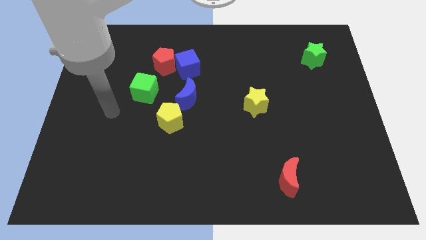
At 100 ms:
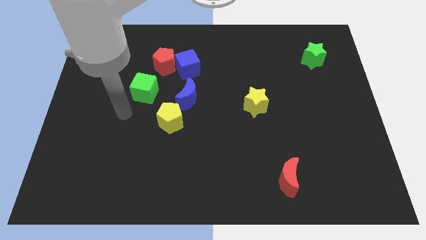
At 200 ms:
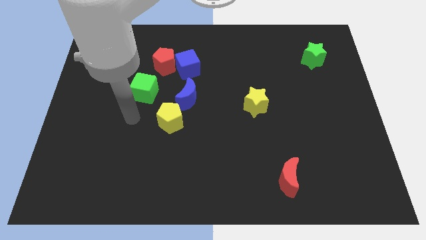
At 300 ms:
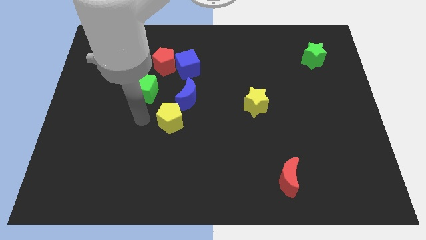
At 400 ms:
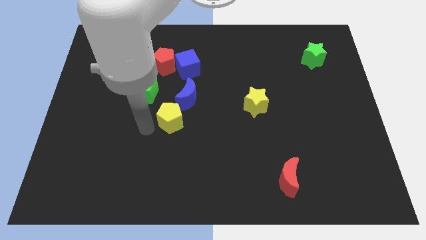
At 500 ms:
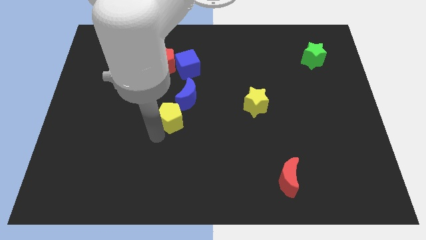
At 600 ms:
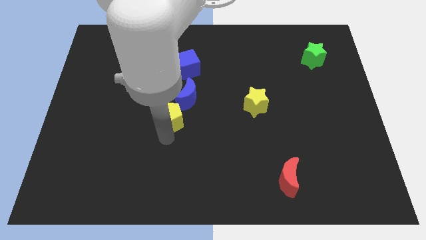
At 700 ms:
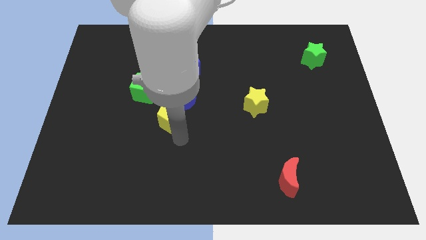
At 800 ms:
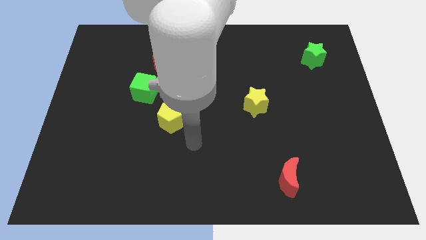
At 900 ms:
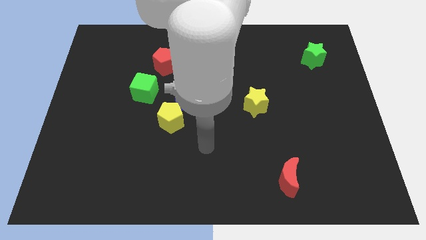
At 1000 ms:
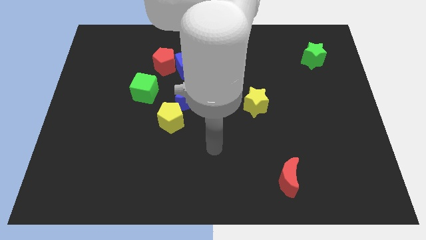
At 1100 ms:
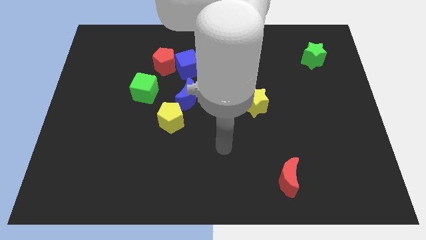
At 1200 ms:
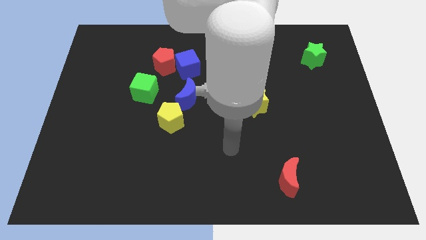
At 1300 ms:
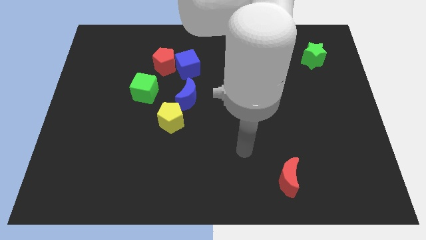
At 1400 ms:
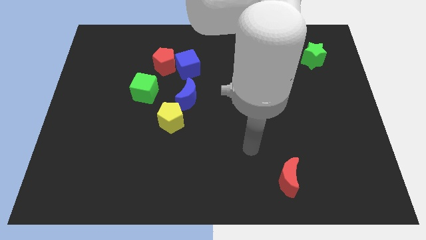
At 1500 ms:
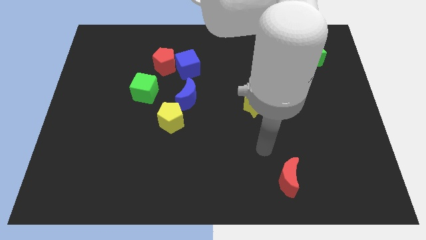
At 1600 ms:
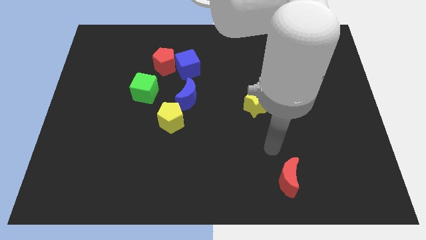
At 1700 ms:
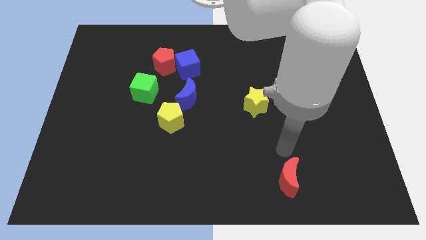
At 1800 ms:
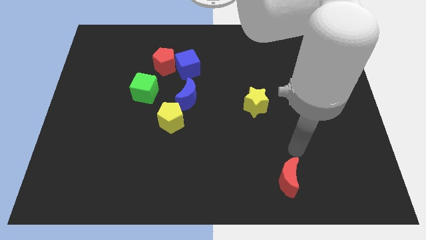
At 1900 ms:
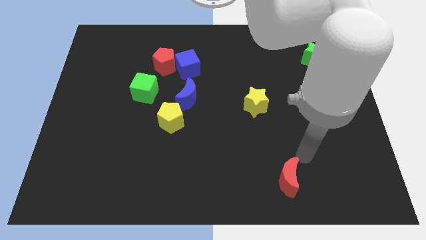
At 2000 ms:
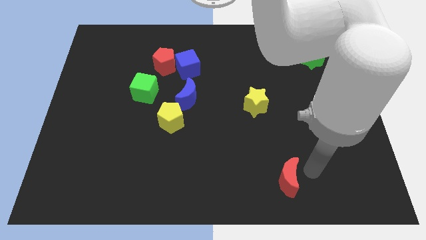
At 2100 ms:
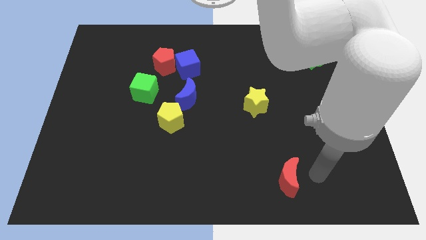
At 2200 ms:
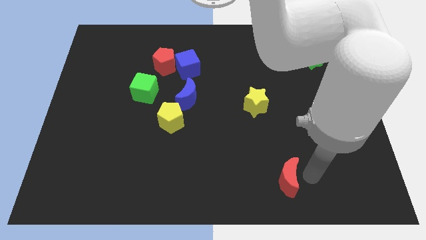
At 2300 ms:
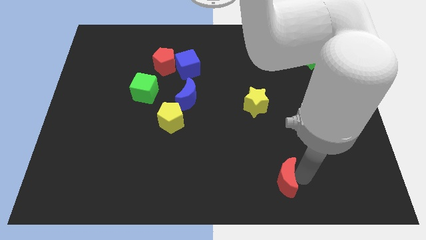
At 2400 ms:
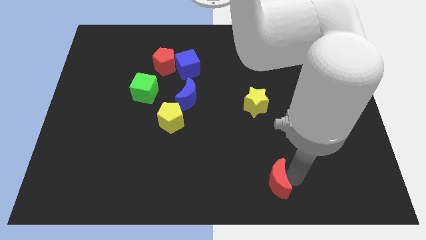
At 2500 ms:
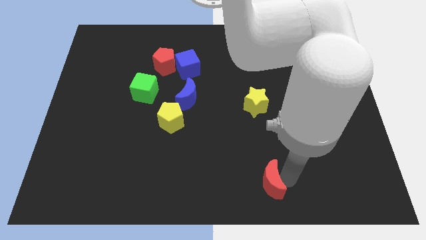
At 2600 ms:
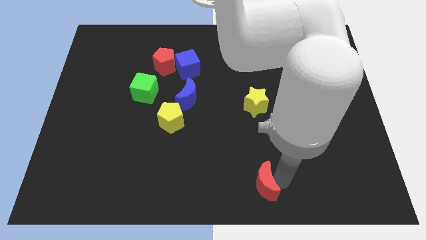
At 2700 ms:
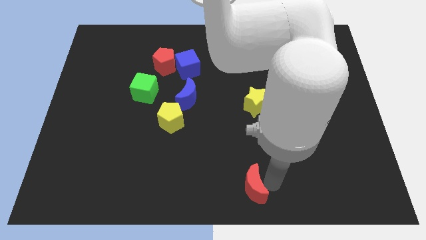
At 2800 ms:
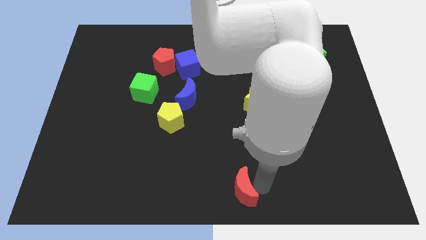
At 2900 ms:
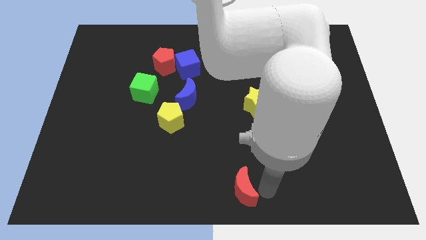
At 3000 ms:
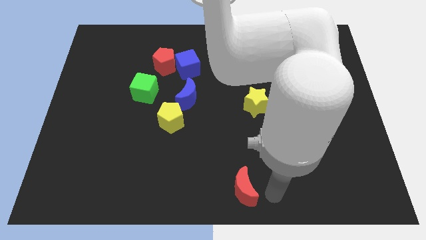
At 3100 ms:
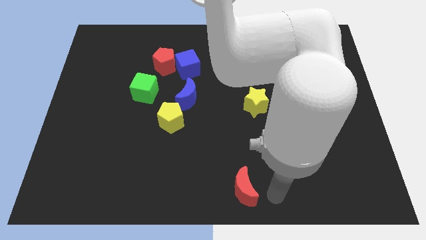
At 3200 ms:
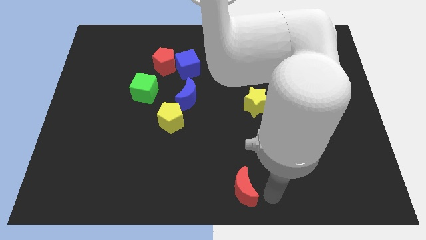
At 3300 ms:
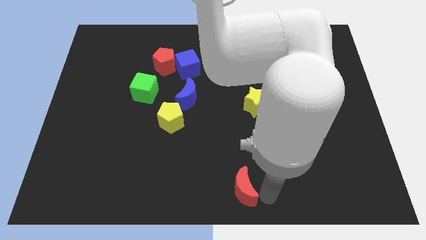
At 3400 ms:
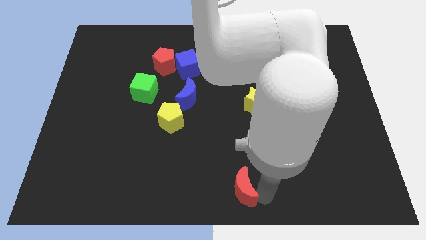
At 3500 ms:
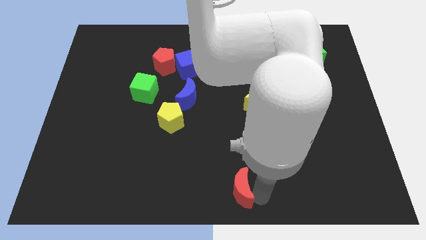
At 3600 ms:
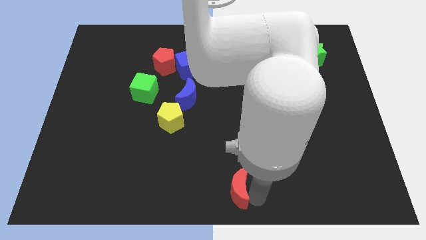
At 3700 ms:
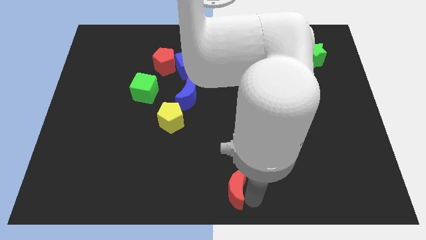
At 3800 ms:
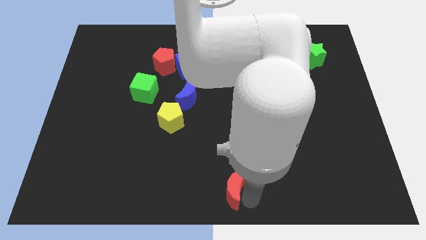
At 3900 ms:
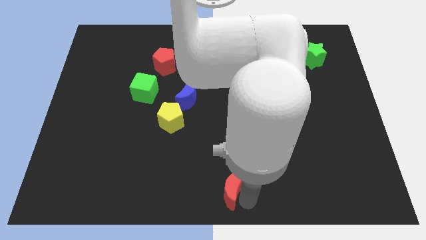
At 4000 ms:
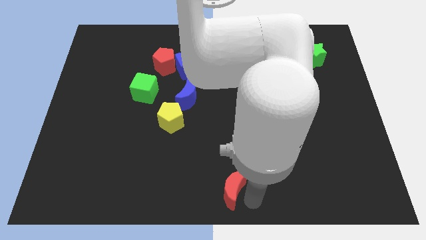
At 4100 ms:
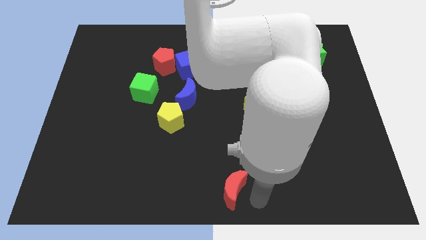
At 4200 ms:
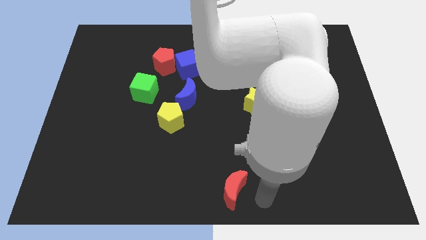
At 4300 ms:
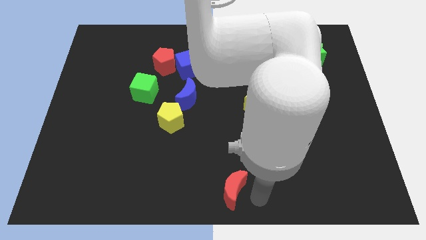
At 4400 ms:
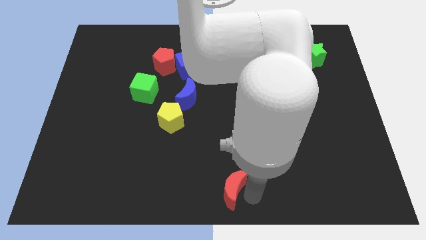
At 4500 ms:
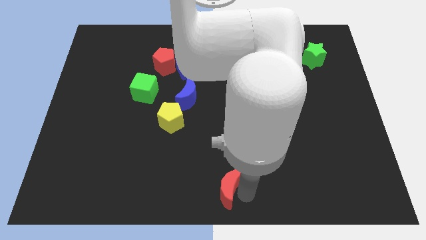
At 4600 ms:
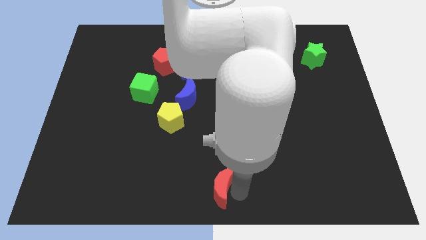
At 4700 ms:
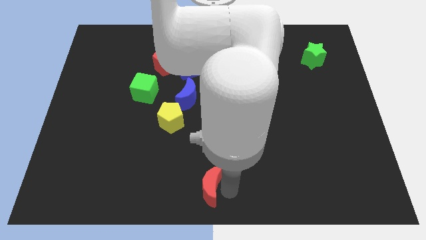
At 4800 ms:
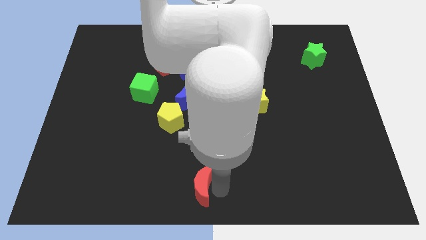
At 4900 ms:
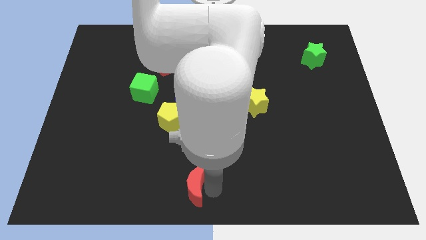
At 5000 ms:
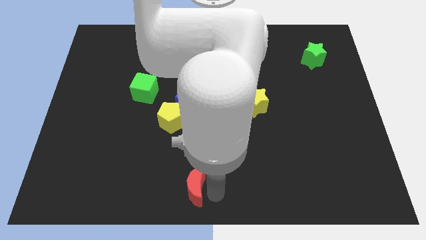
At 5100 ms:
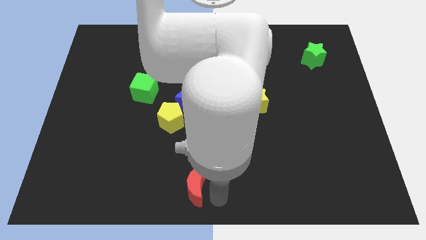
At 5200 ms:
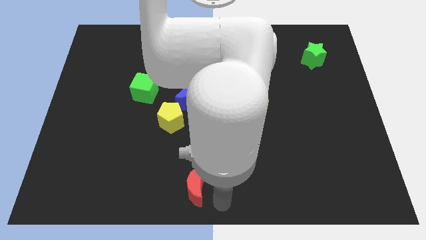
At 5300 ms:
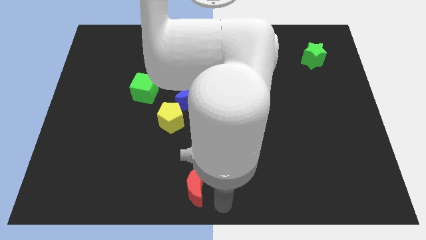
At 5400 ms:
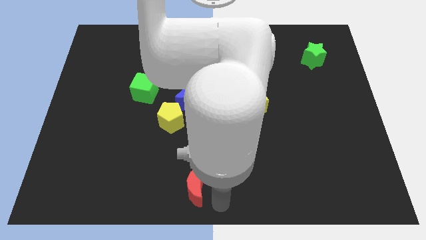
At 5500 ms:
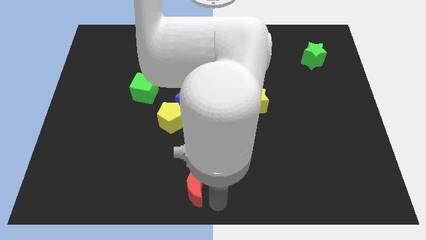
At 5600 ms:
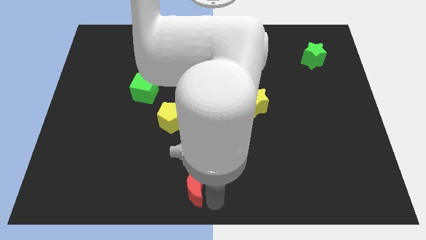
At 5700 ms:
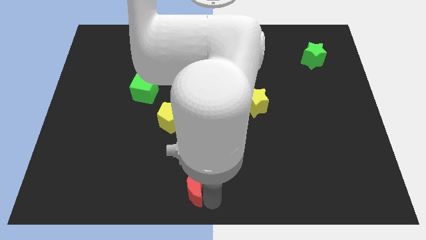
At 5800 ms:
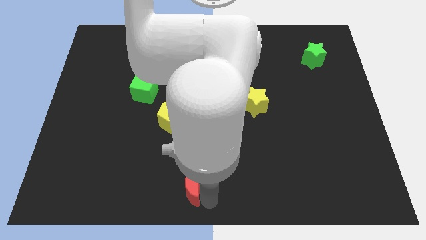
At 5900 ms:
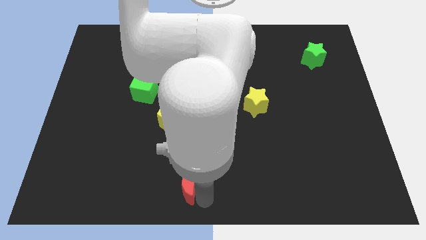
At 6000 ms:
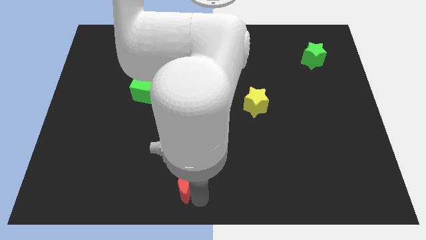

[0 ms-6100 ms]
move the red moon left

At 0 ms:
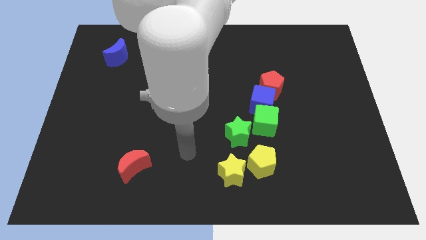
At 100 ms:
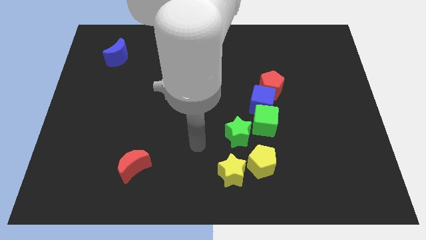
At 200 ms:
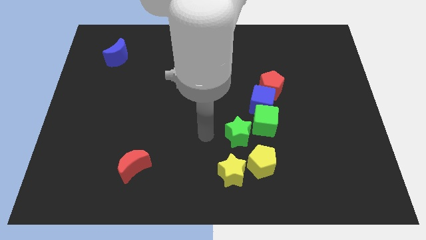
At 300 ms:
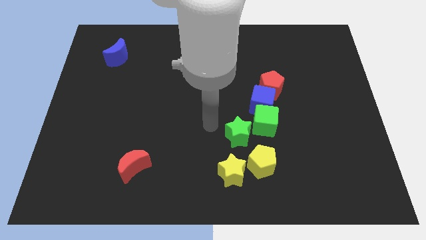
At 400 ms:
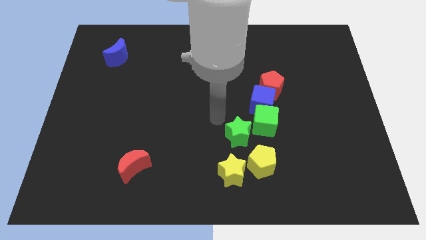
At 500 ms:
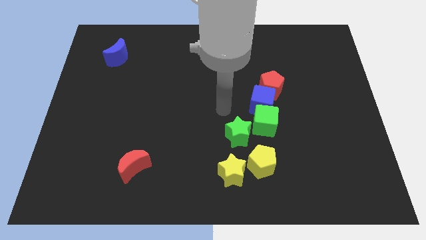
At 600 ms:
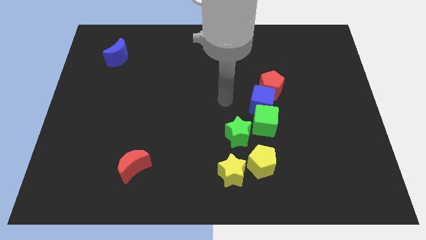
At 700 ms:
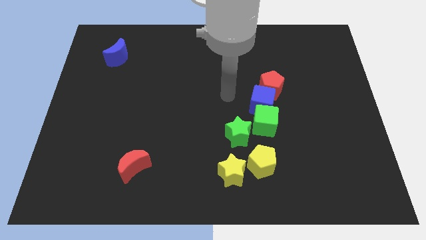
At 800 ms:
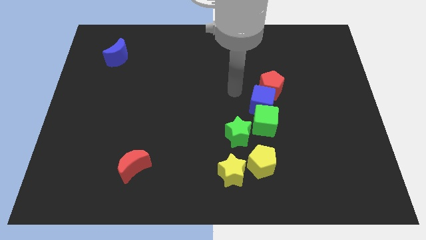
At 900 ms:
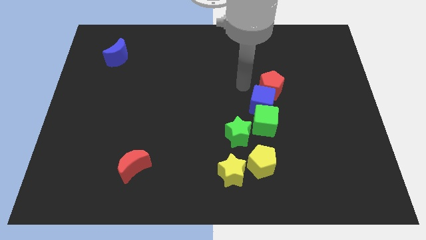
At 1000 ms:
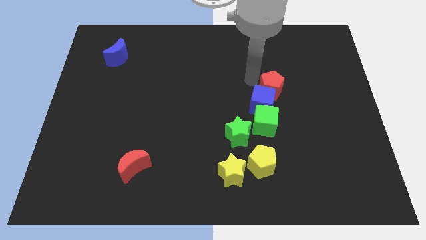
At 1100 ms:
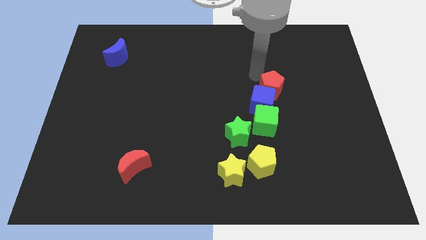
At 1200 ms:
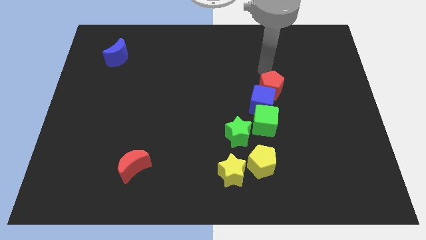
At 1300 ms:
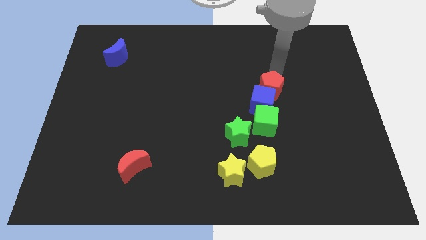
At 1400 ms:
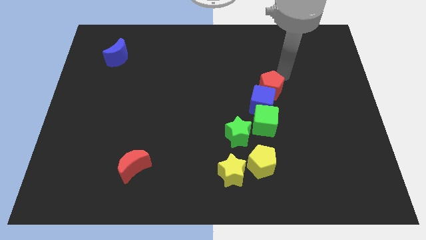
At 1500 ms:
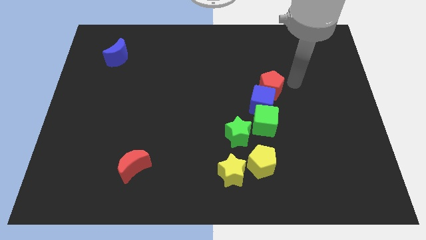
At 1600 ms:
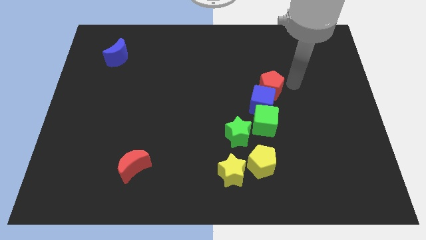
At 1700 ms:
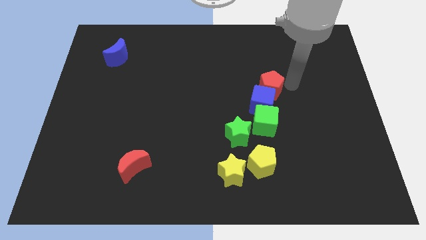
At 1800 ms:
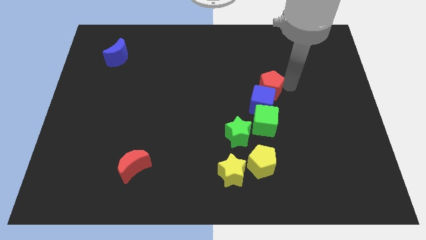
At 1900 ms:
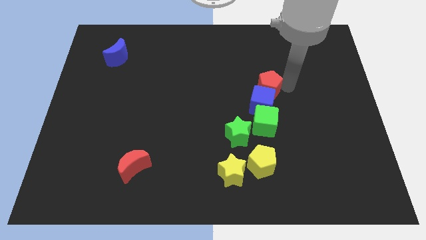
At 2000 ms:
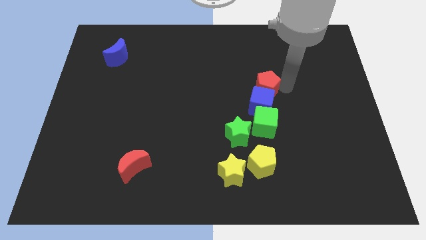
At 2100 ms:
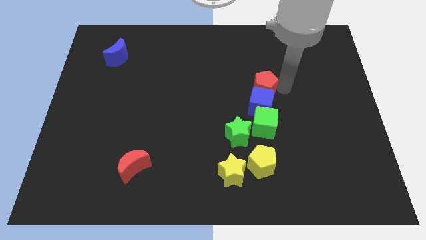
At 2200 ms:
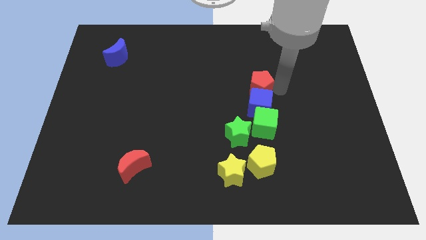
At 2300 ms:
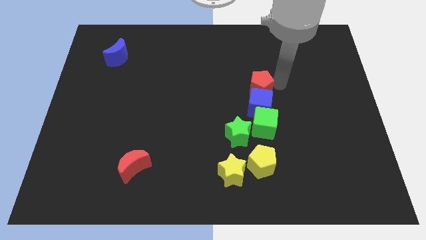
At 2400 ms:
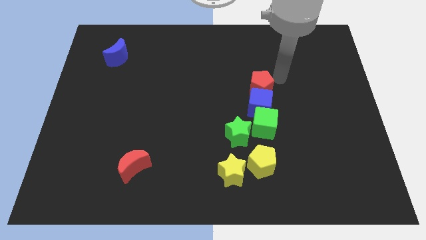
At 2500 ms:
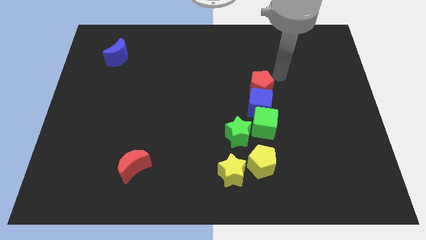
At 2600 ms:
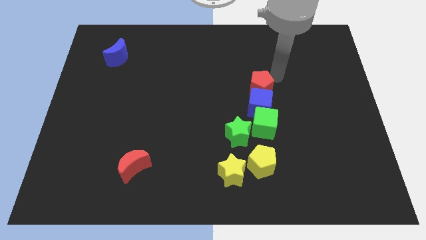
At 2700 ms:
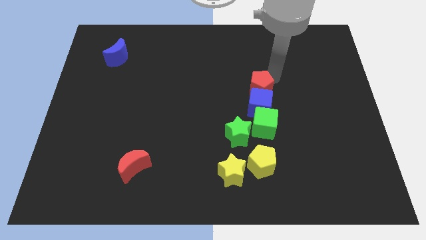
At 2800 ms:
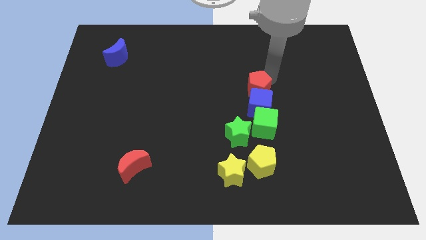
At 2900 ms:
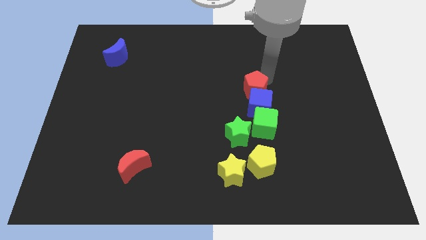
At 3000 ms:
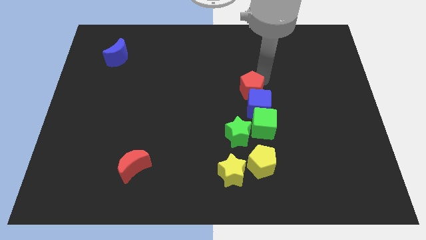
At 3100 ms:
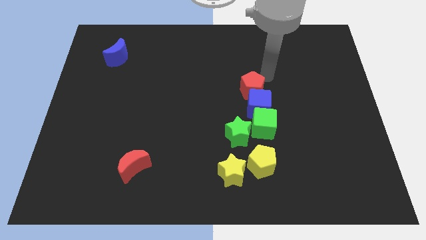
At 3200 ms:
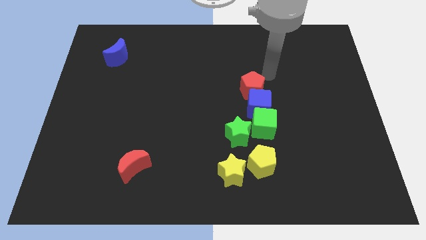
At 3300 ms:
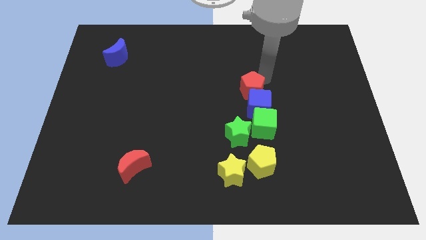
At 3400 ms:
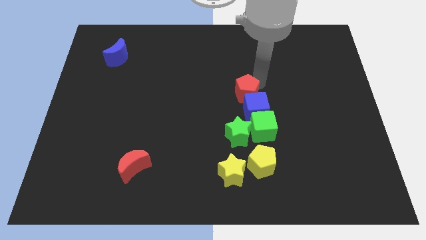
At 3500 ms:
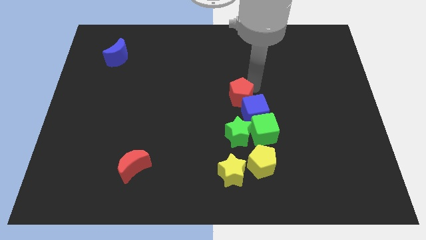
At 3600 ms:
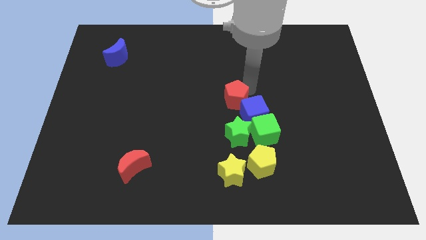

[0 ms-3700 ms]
slide the red pentagon a little diagonally downwards and to the left
